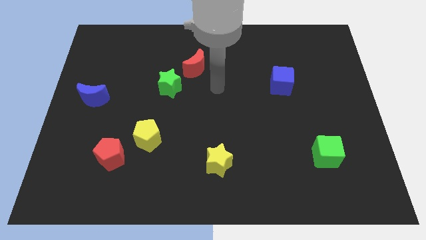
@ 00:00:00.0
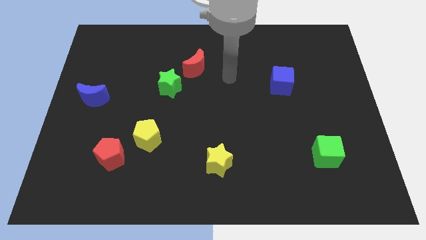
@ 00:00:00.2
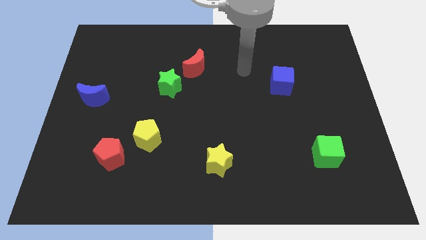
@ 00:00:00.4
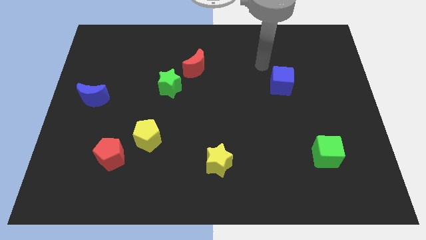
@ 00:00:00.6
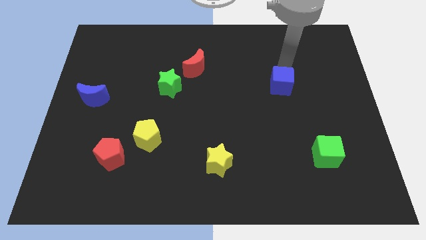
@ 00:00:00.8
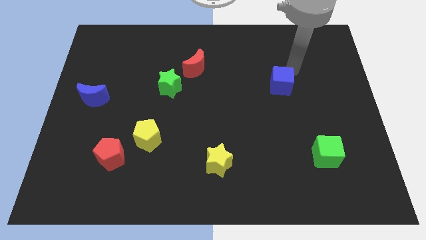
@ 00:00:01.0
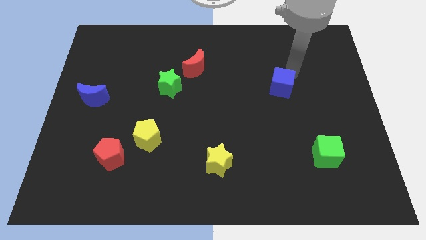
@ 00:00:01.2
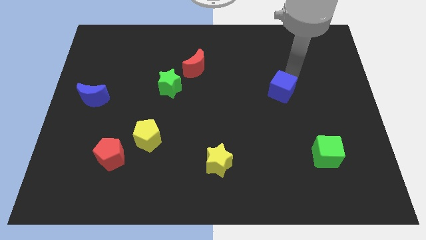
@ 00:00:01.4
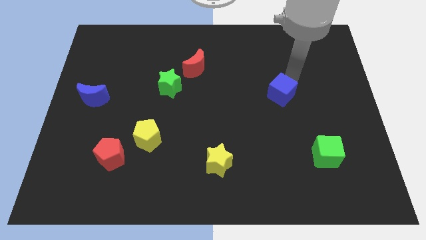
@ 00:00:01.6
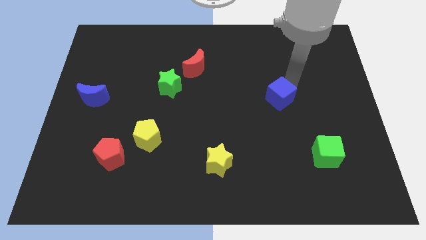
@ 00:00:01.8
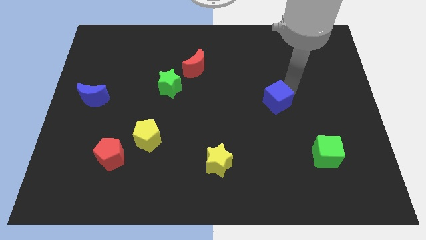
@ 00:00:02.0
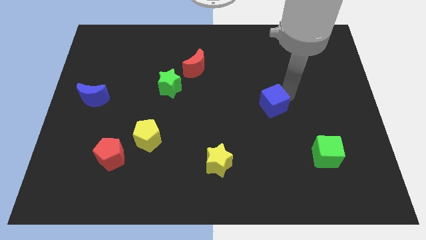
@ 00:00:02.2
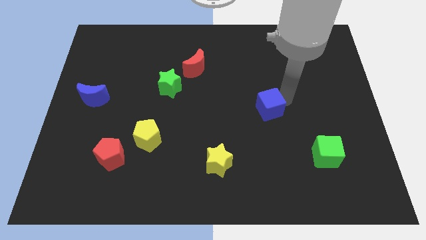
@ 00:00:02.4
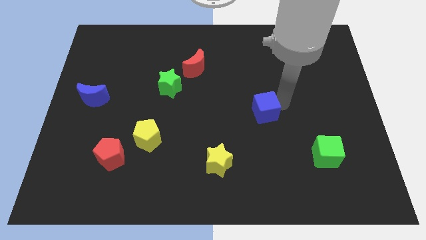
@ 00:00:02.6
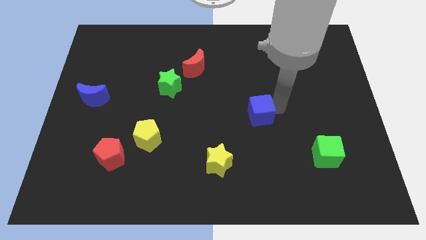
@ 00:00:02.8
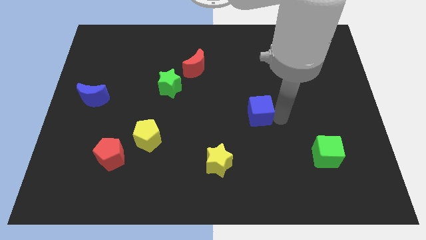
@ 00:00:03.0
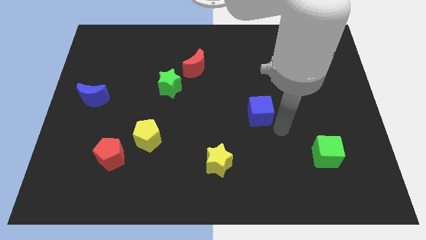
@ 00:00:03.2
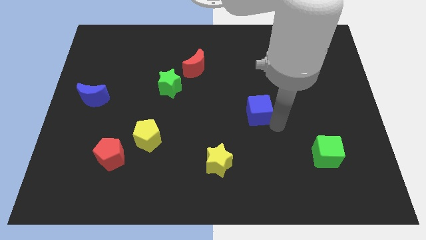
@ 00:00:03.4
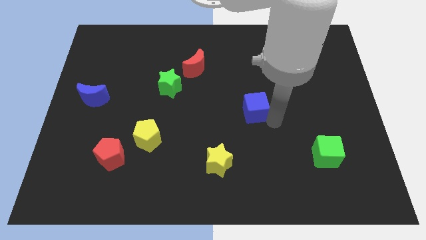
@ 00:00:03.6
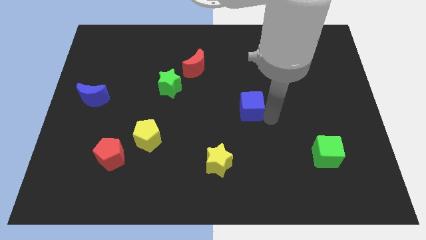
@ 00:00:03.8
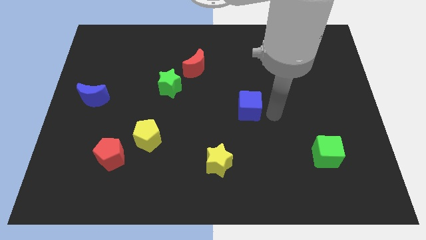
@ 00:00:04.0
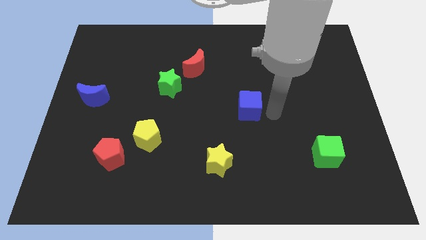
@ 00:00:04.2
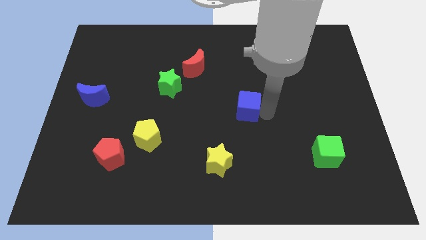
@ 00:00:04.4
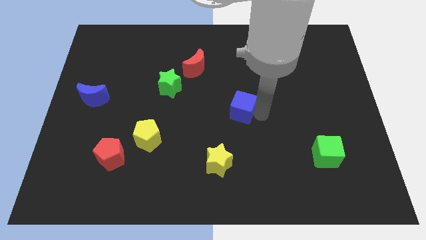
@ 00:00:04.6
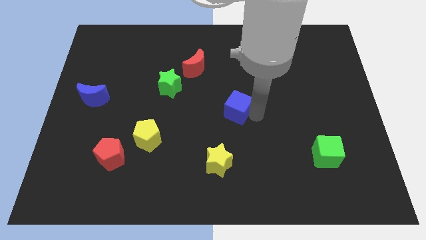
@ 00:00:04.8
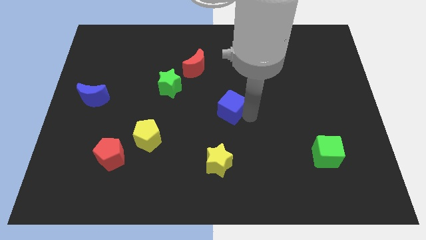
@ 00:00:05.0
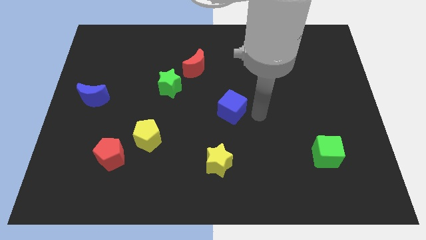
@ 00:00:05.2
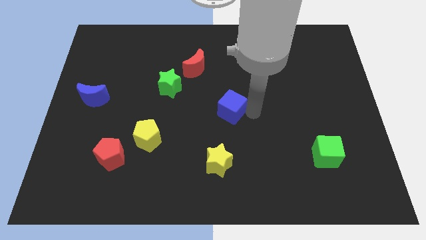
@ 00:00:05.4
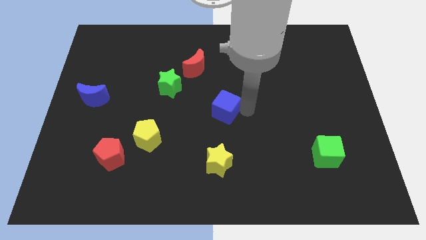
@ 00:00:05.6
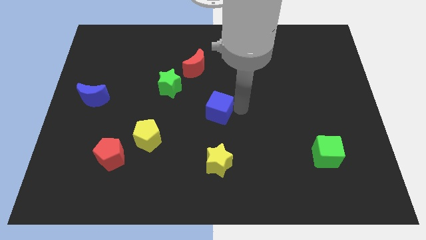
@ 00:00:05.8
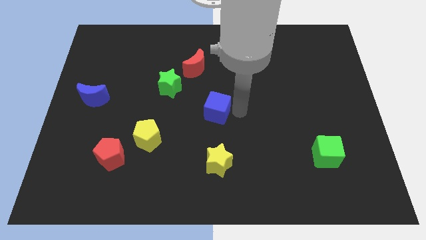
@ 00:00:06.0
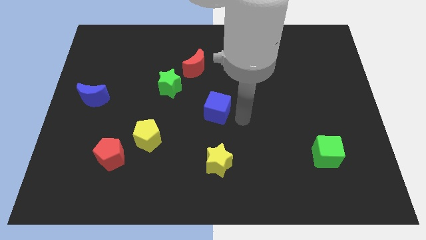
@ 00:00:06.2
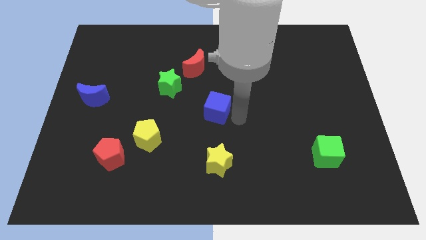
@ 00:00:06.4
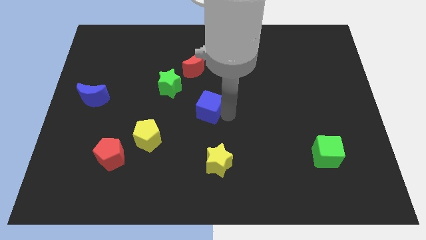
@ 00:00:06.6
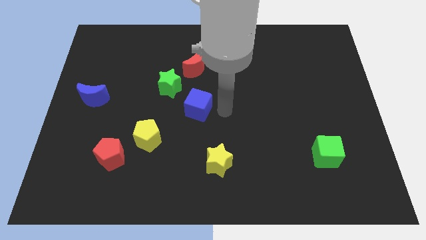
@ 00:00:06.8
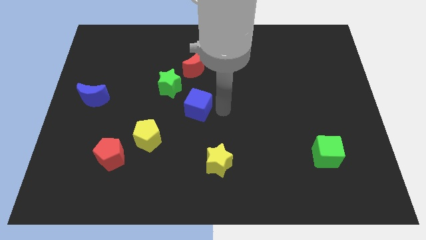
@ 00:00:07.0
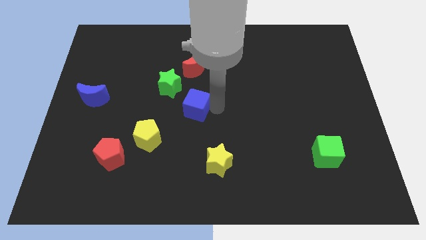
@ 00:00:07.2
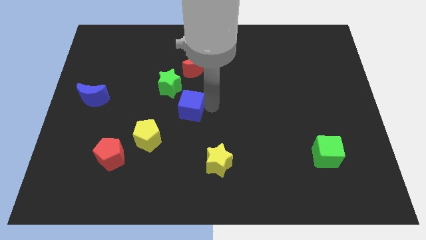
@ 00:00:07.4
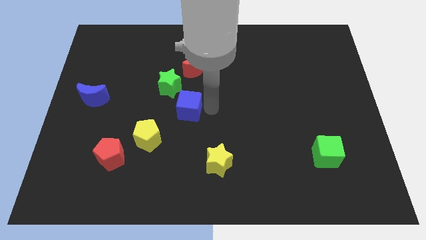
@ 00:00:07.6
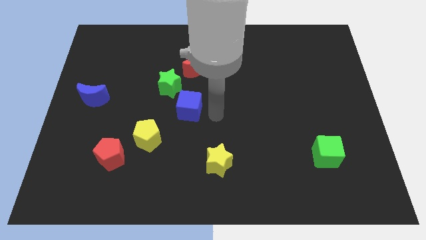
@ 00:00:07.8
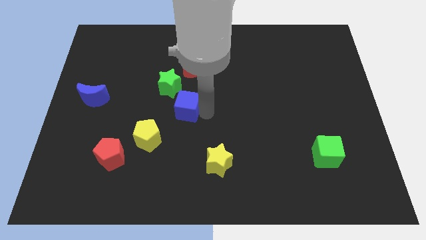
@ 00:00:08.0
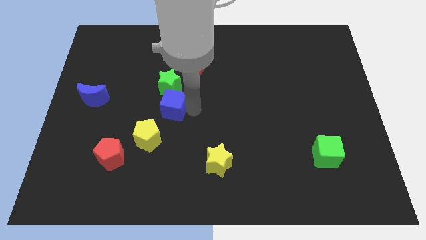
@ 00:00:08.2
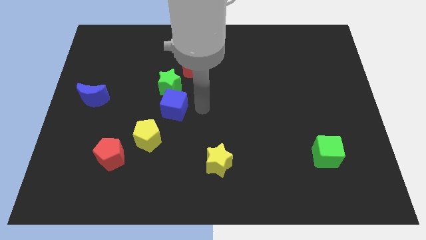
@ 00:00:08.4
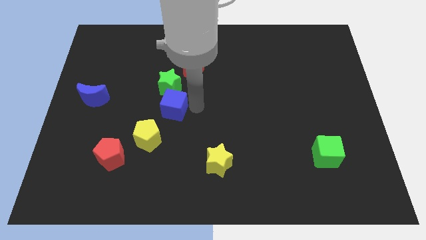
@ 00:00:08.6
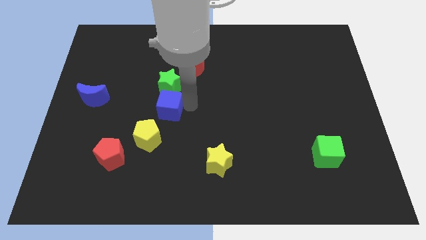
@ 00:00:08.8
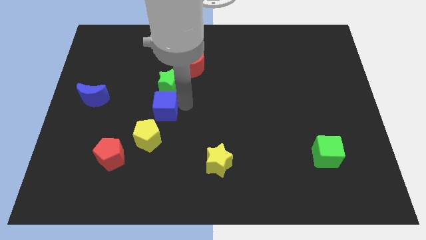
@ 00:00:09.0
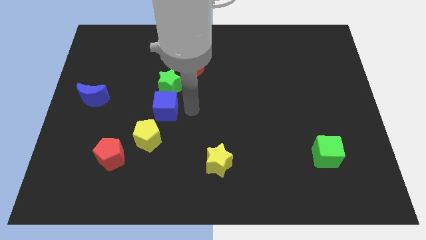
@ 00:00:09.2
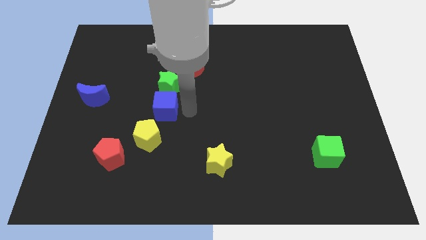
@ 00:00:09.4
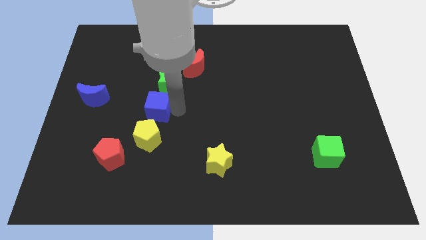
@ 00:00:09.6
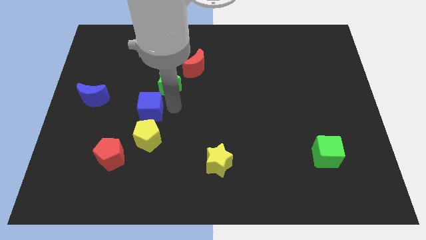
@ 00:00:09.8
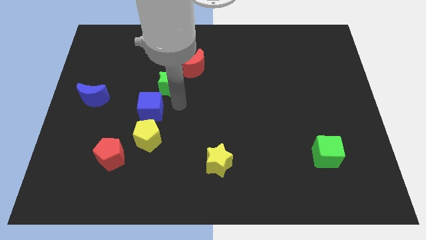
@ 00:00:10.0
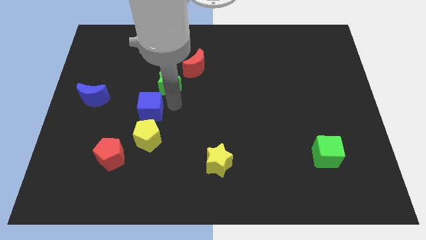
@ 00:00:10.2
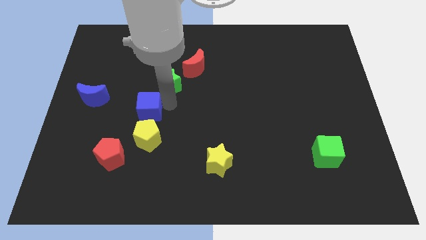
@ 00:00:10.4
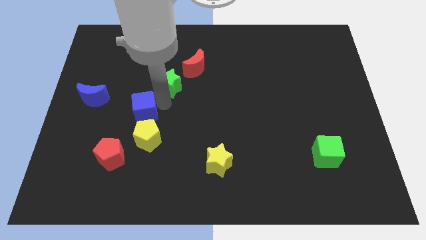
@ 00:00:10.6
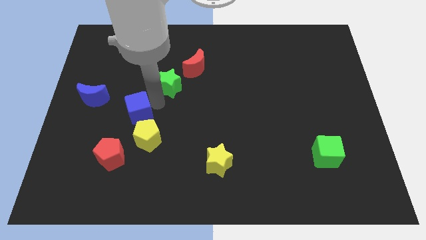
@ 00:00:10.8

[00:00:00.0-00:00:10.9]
move the blue cube above the red pentagon
